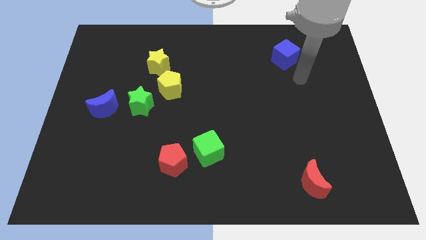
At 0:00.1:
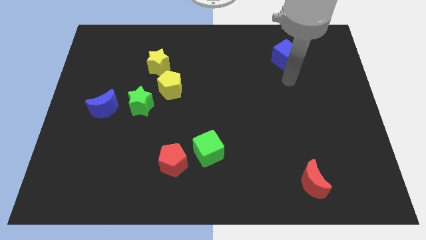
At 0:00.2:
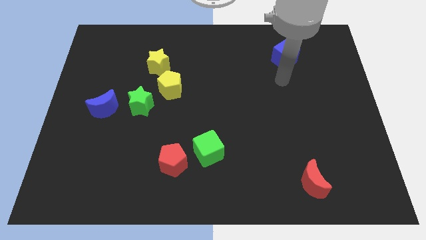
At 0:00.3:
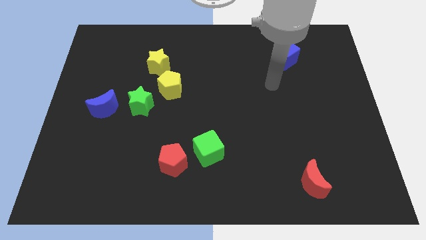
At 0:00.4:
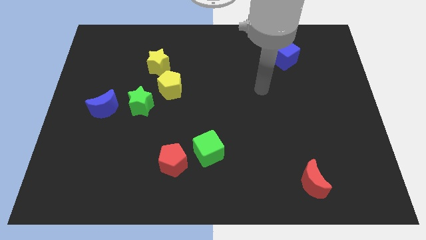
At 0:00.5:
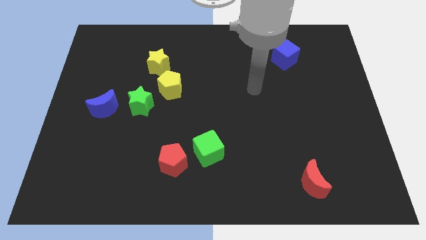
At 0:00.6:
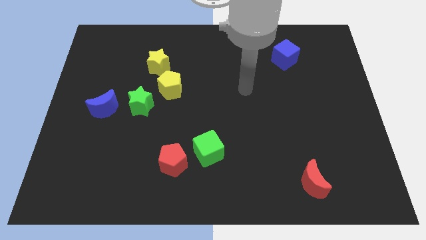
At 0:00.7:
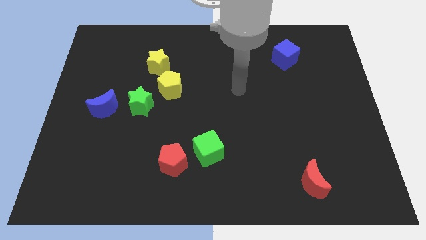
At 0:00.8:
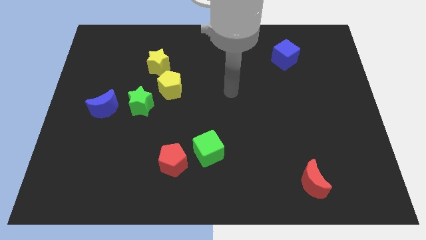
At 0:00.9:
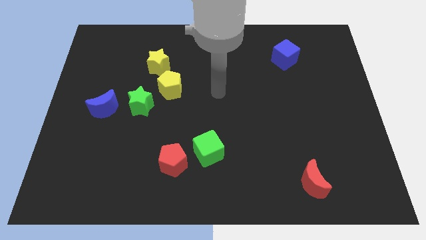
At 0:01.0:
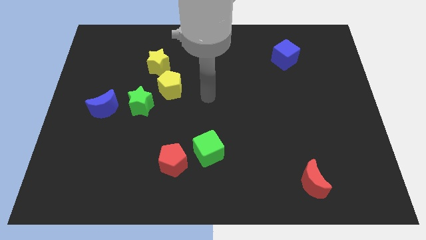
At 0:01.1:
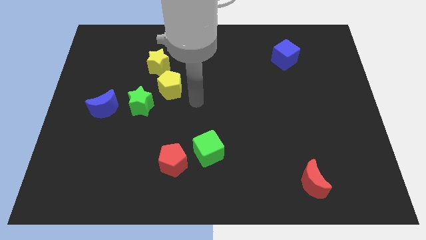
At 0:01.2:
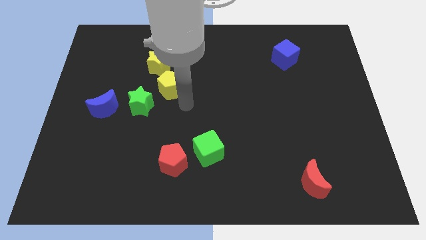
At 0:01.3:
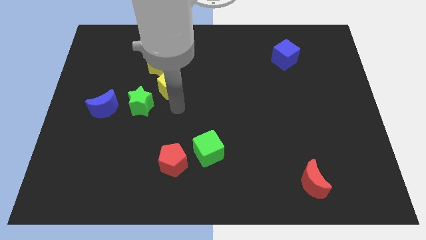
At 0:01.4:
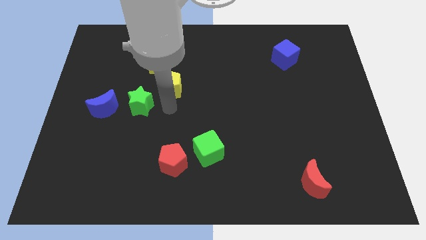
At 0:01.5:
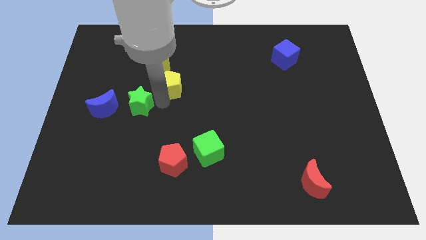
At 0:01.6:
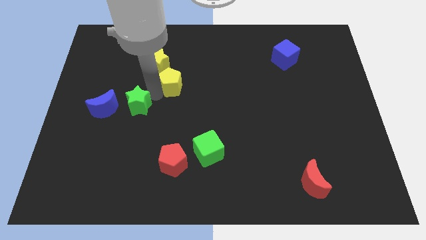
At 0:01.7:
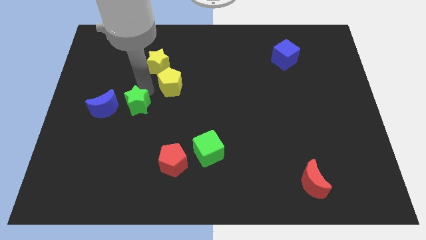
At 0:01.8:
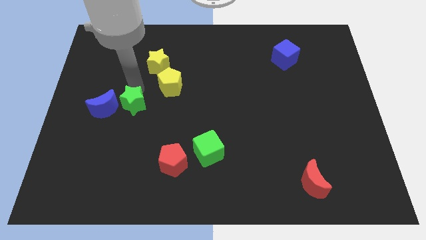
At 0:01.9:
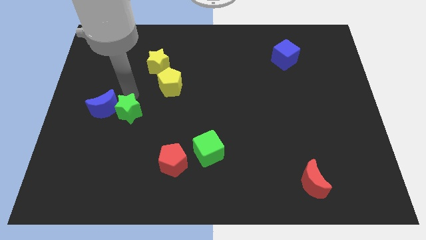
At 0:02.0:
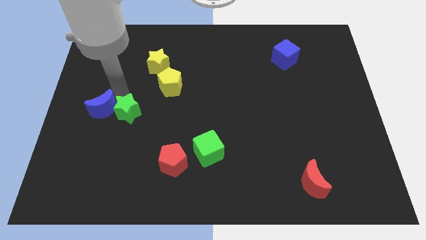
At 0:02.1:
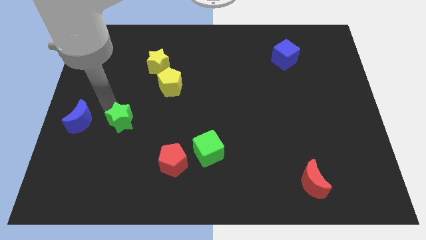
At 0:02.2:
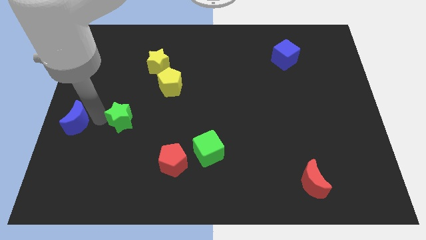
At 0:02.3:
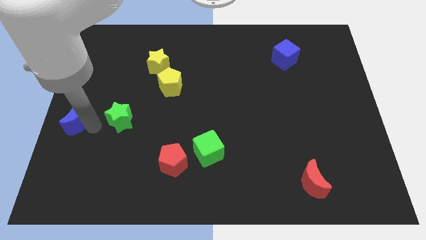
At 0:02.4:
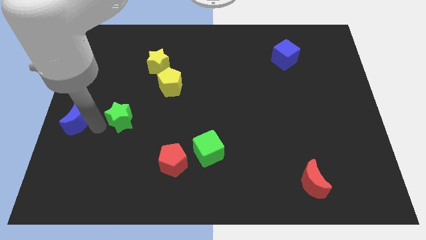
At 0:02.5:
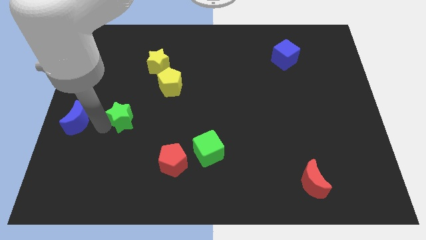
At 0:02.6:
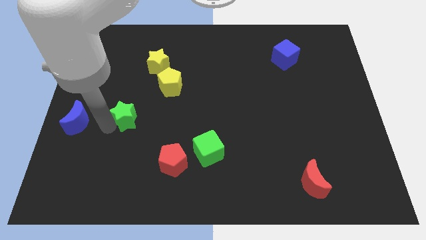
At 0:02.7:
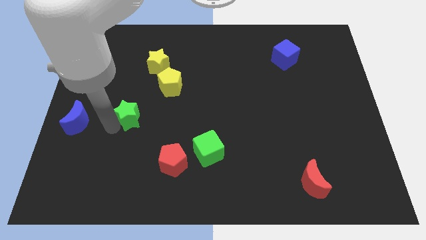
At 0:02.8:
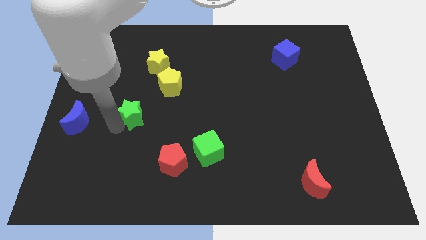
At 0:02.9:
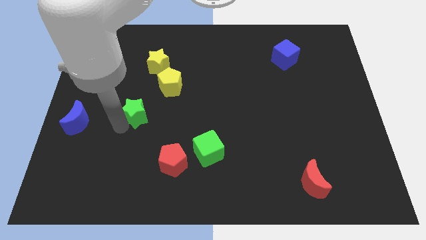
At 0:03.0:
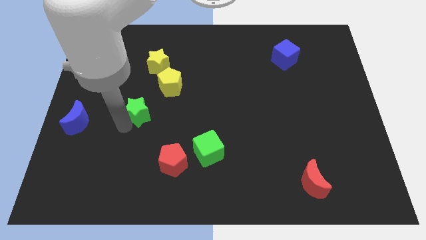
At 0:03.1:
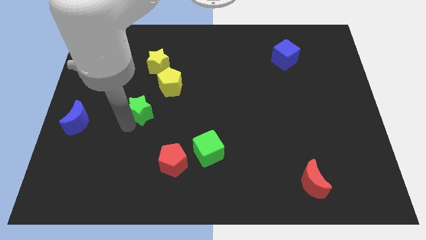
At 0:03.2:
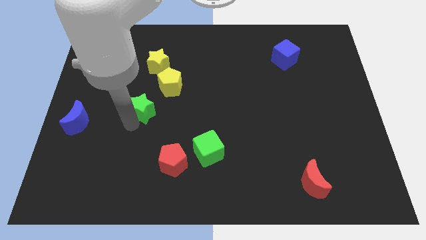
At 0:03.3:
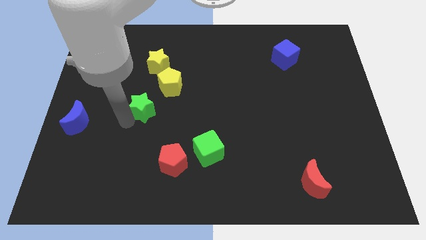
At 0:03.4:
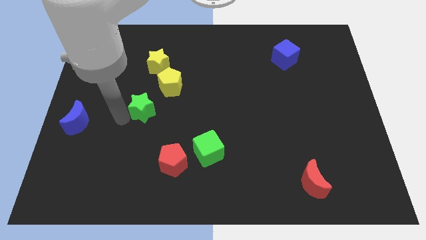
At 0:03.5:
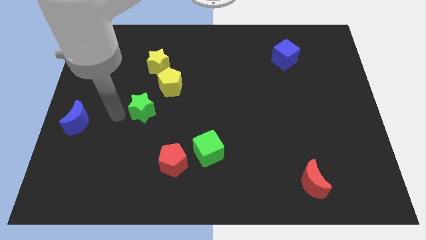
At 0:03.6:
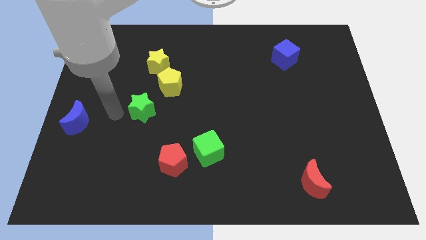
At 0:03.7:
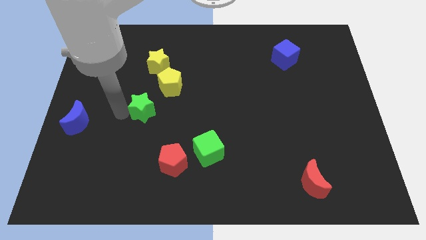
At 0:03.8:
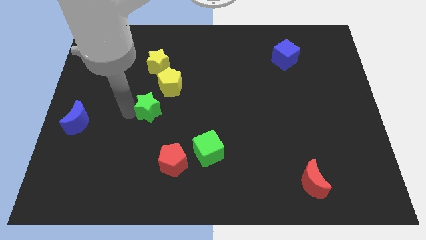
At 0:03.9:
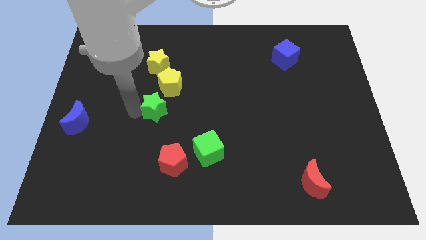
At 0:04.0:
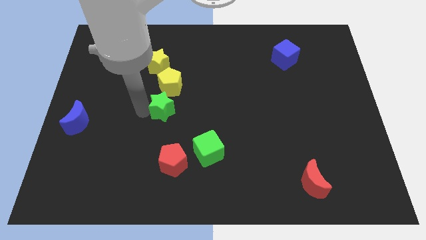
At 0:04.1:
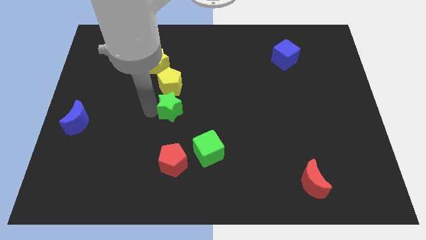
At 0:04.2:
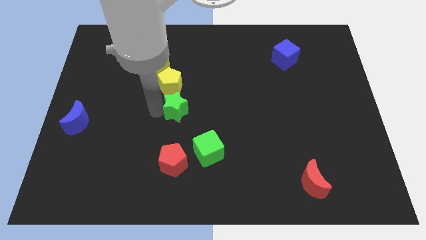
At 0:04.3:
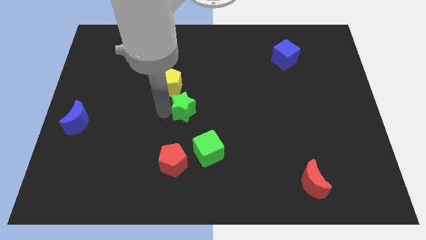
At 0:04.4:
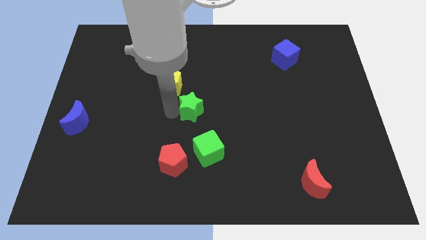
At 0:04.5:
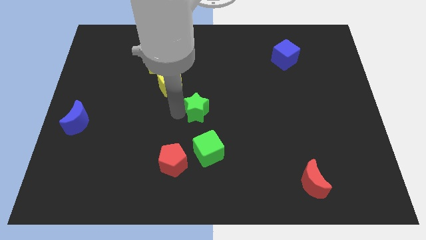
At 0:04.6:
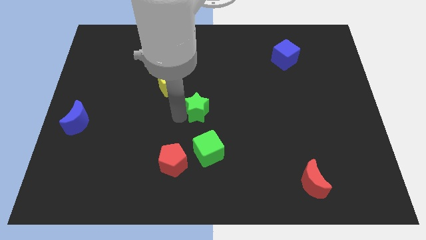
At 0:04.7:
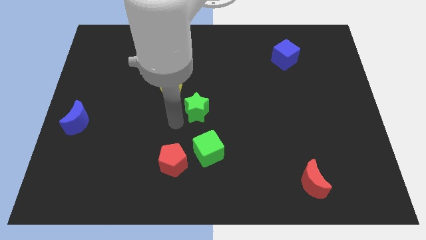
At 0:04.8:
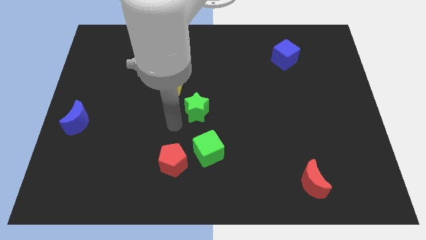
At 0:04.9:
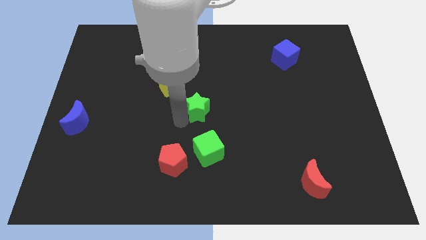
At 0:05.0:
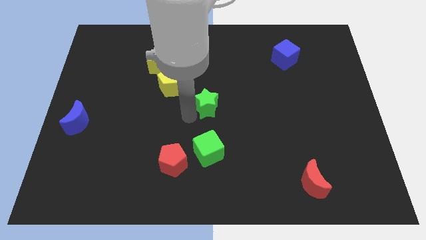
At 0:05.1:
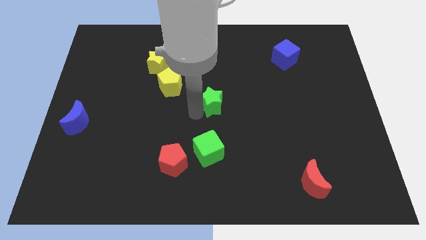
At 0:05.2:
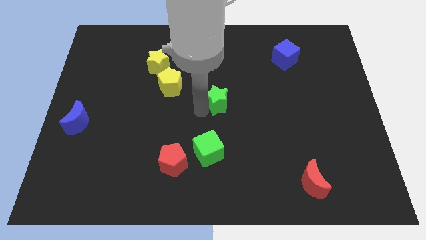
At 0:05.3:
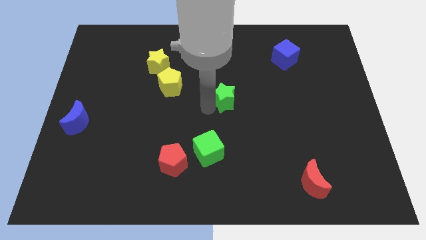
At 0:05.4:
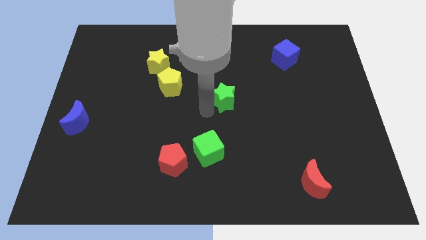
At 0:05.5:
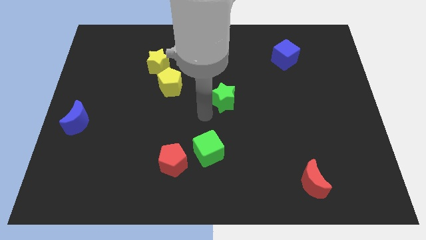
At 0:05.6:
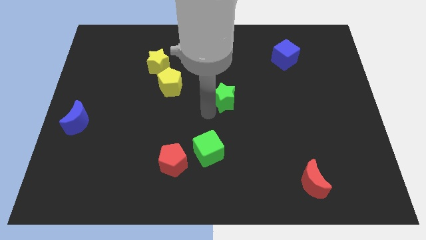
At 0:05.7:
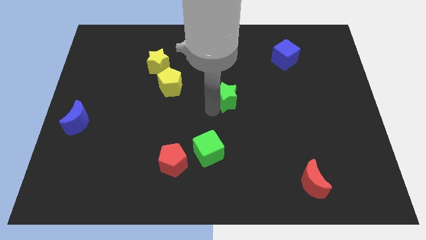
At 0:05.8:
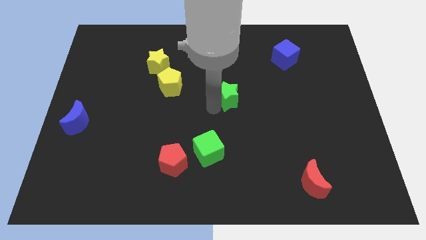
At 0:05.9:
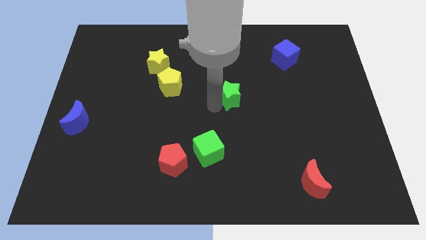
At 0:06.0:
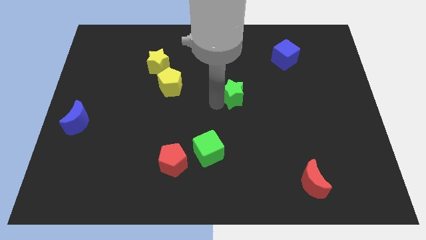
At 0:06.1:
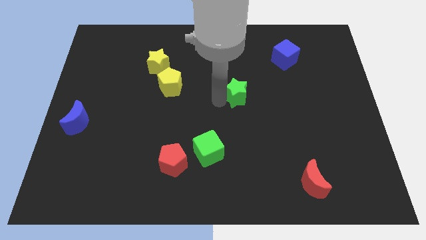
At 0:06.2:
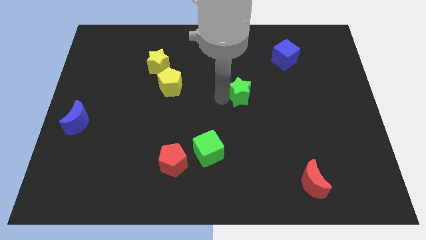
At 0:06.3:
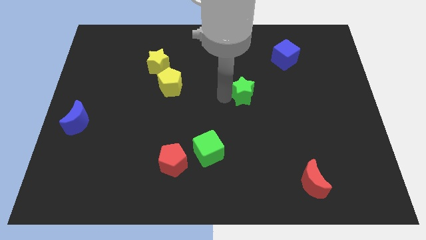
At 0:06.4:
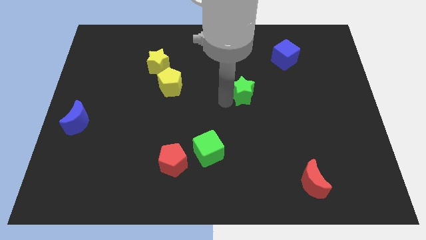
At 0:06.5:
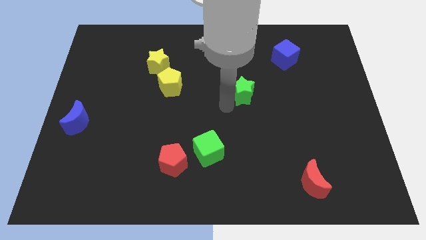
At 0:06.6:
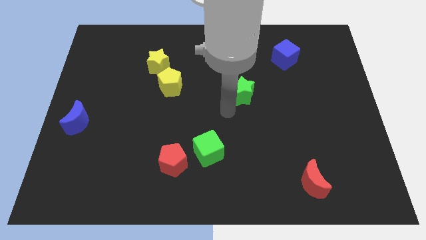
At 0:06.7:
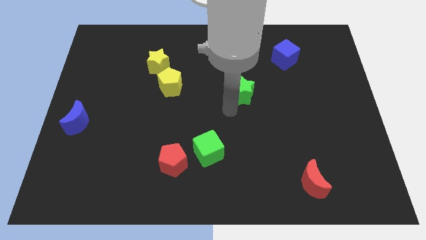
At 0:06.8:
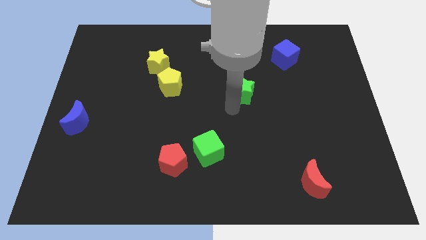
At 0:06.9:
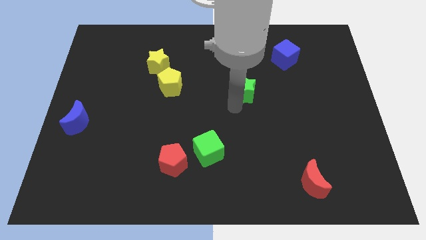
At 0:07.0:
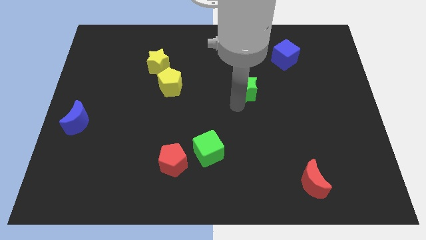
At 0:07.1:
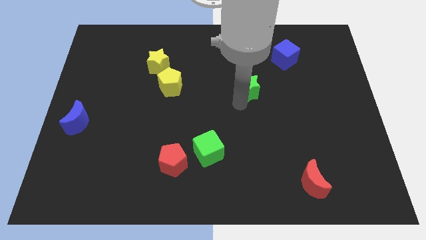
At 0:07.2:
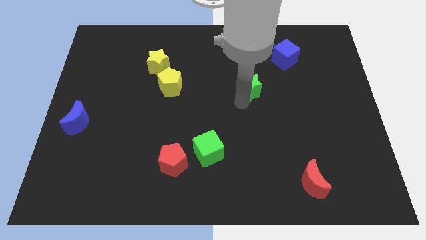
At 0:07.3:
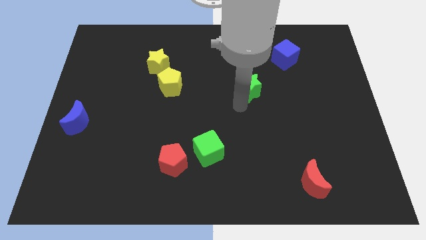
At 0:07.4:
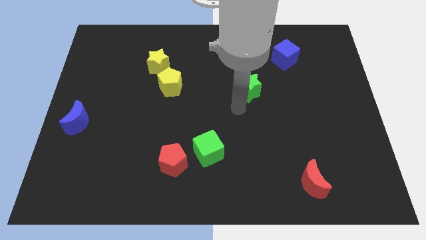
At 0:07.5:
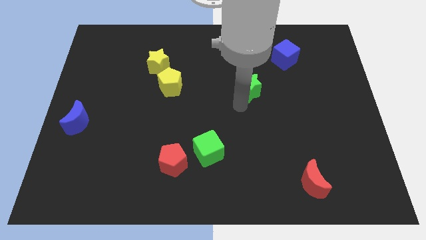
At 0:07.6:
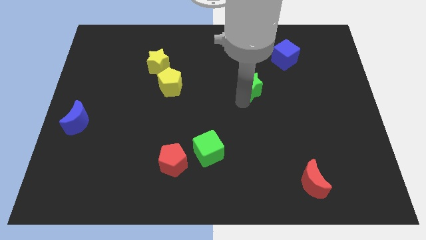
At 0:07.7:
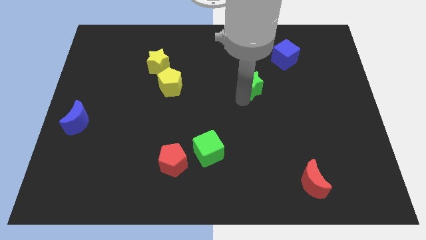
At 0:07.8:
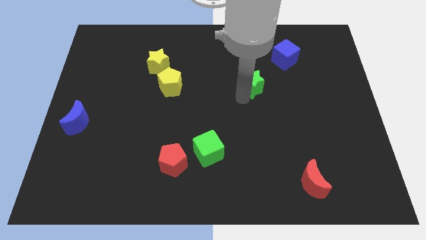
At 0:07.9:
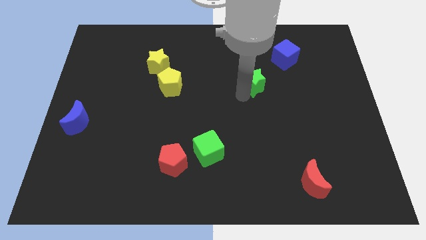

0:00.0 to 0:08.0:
put the green star to the bottom left of the blue cube
